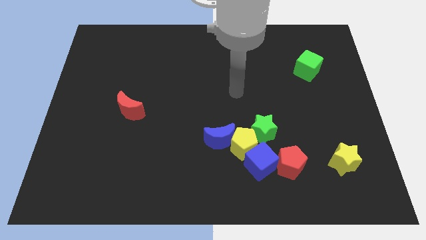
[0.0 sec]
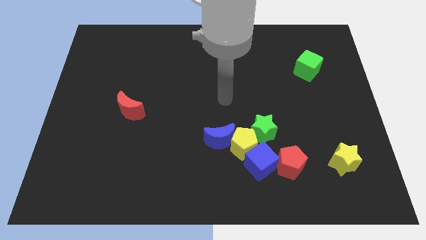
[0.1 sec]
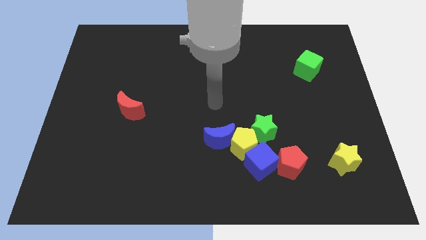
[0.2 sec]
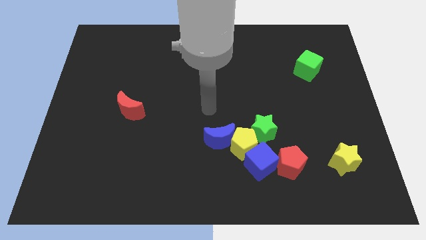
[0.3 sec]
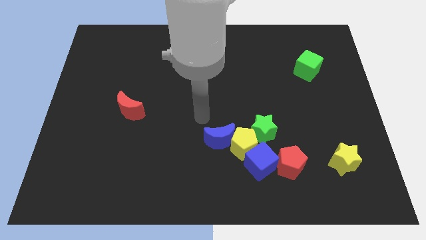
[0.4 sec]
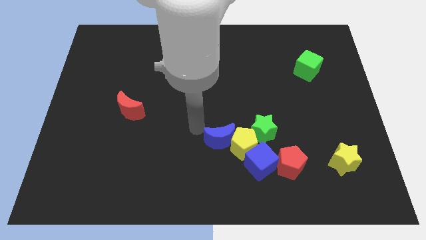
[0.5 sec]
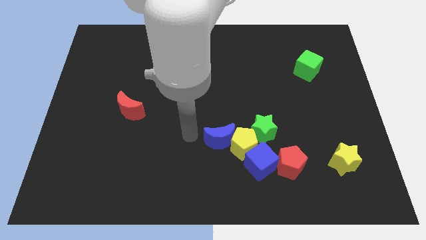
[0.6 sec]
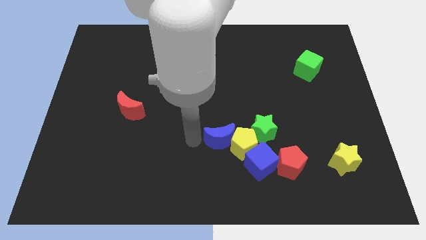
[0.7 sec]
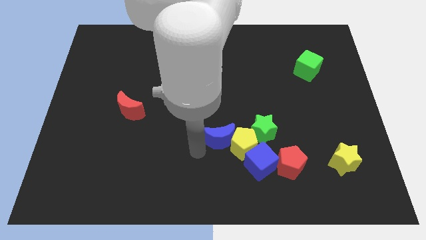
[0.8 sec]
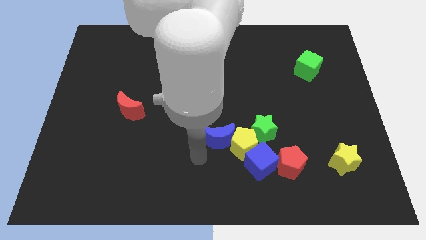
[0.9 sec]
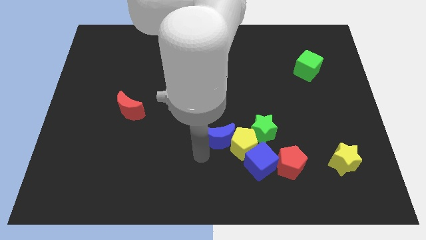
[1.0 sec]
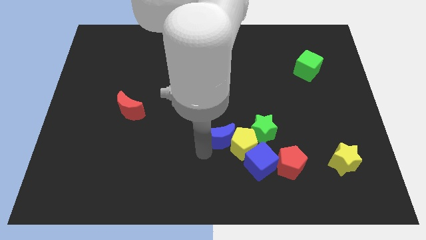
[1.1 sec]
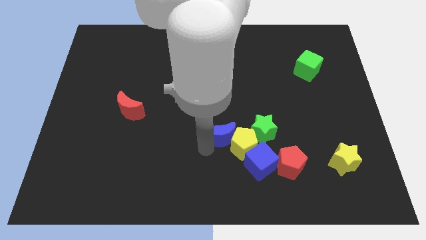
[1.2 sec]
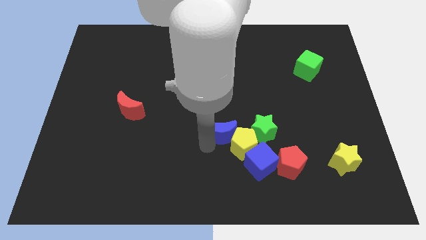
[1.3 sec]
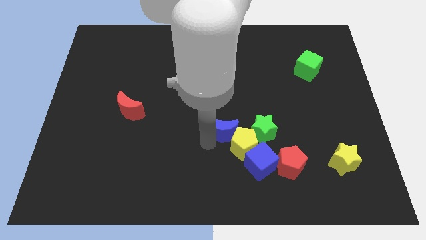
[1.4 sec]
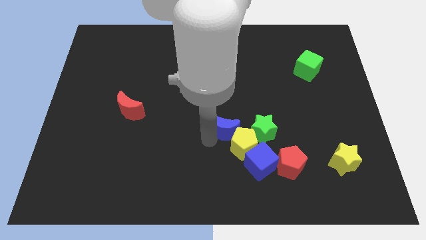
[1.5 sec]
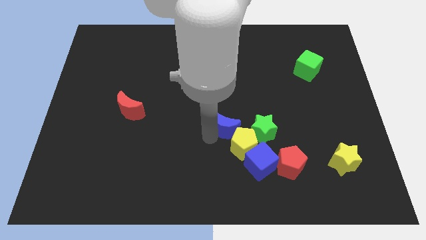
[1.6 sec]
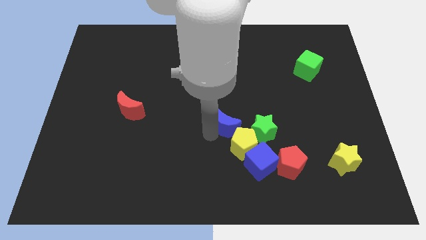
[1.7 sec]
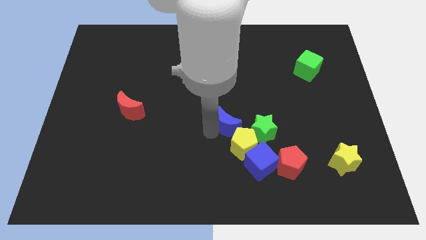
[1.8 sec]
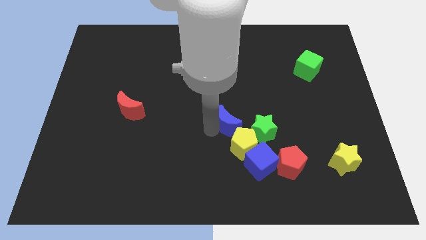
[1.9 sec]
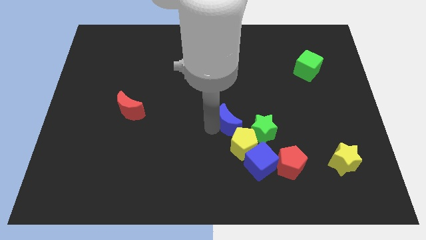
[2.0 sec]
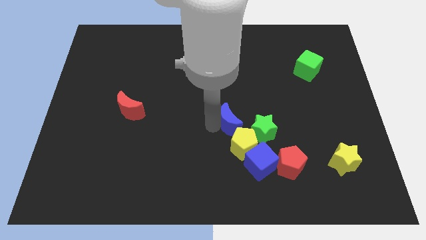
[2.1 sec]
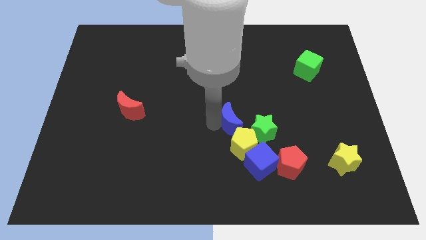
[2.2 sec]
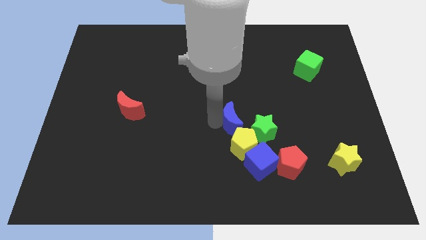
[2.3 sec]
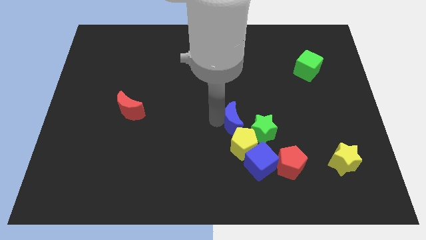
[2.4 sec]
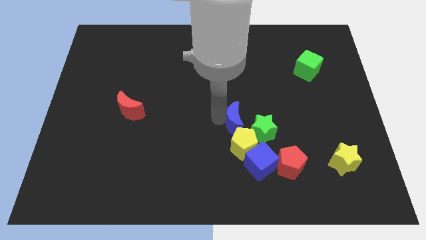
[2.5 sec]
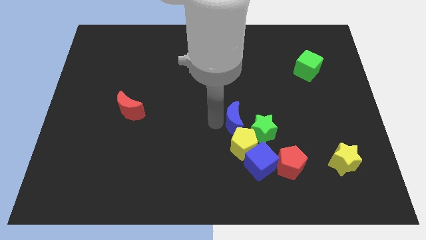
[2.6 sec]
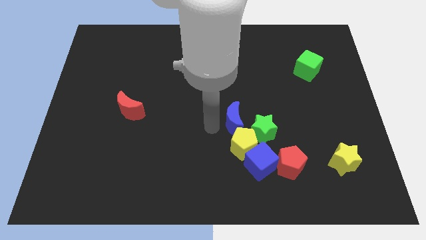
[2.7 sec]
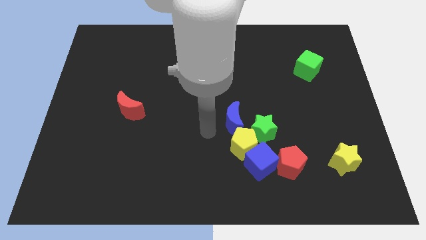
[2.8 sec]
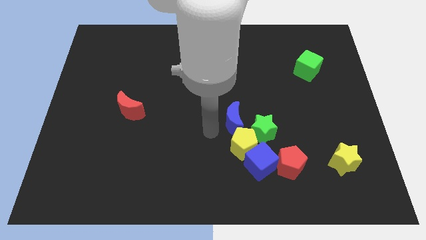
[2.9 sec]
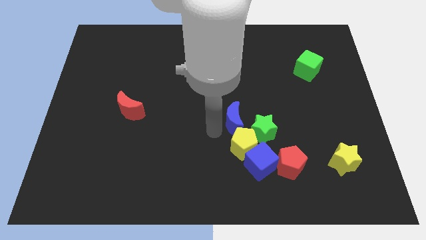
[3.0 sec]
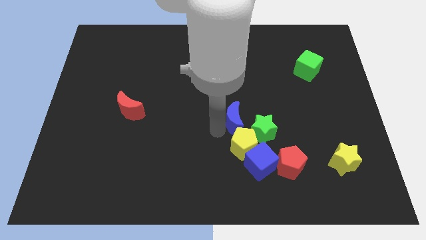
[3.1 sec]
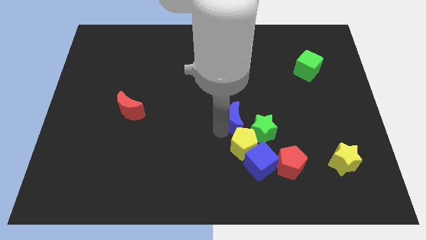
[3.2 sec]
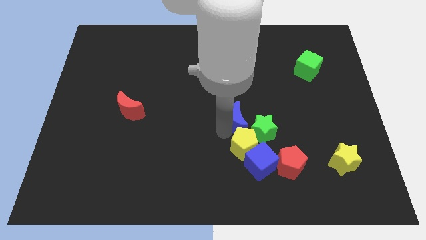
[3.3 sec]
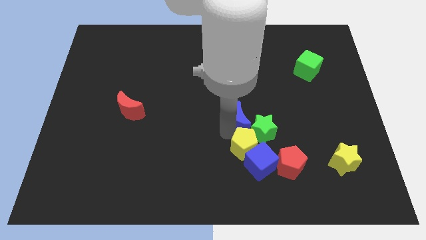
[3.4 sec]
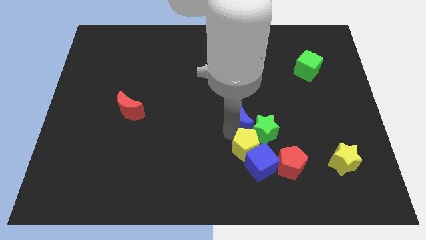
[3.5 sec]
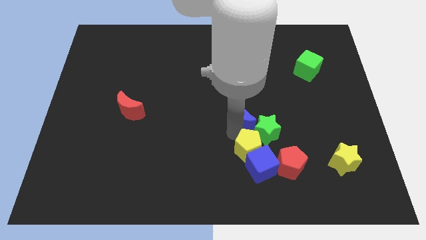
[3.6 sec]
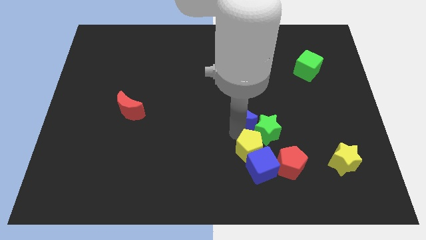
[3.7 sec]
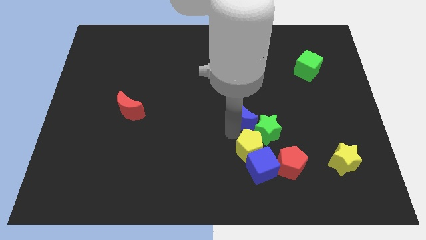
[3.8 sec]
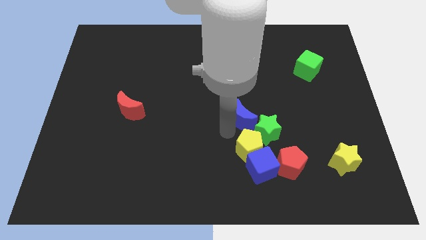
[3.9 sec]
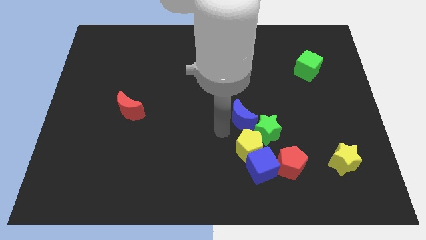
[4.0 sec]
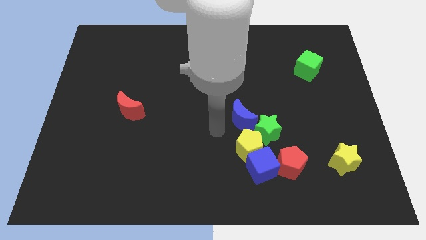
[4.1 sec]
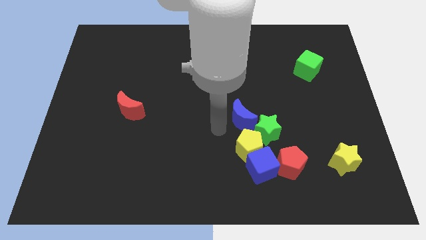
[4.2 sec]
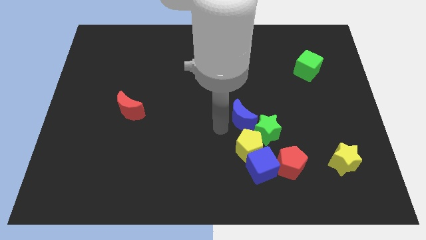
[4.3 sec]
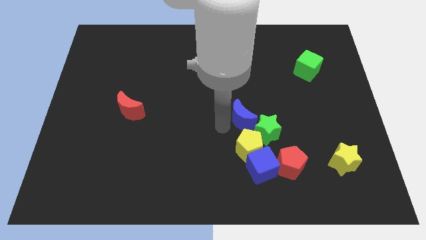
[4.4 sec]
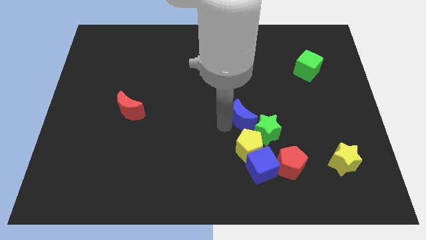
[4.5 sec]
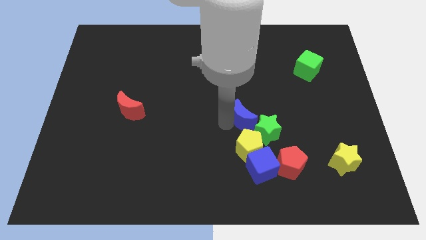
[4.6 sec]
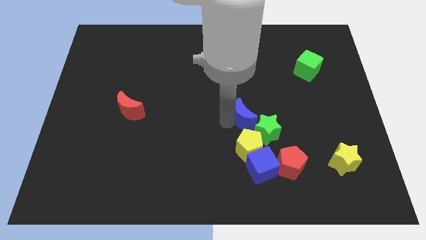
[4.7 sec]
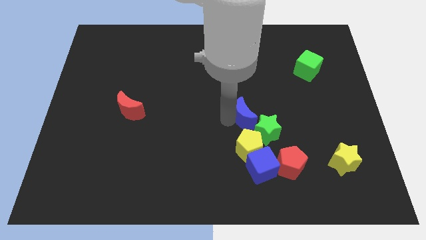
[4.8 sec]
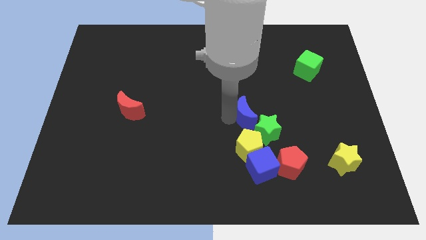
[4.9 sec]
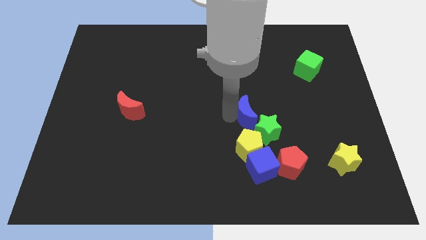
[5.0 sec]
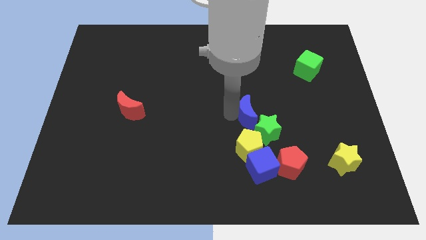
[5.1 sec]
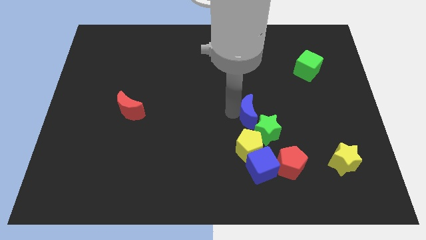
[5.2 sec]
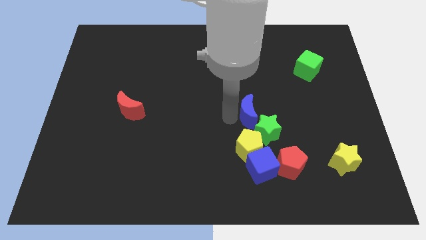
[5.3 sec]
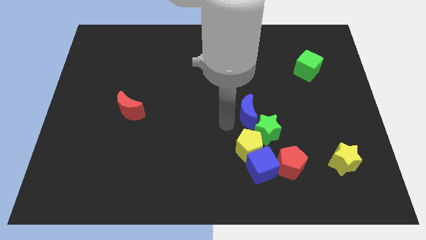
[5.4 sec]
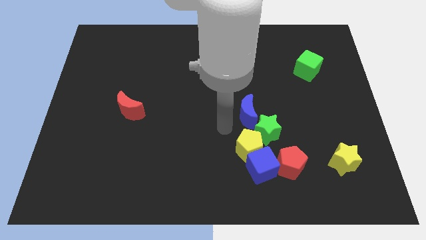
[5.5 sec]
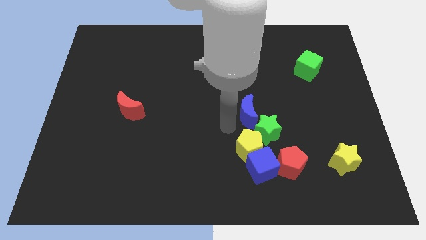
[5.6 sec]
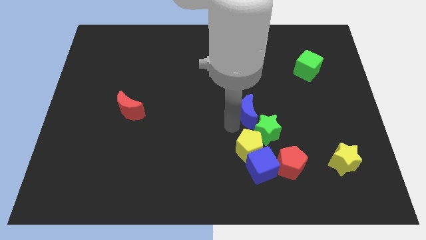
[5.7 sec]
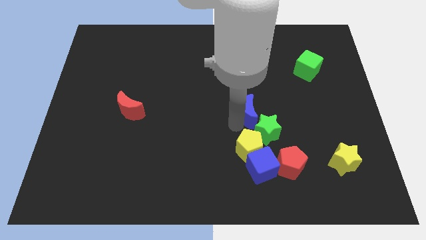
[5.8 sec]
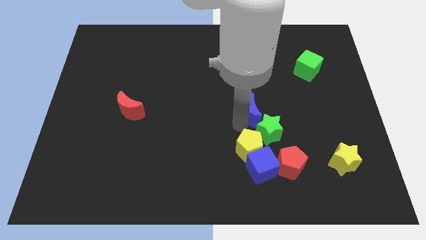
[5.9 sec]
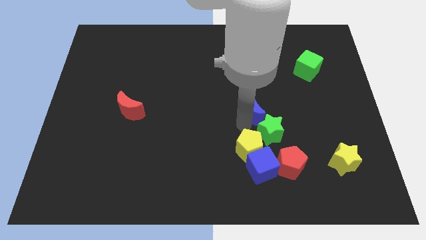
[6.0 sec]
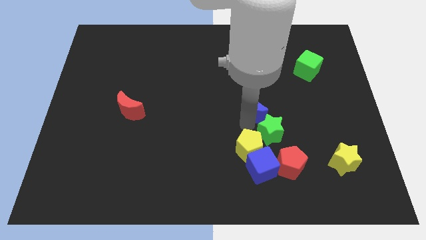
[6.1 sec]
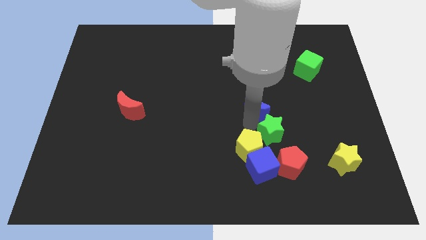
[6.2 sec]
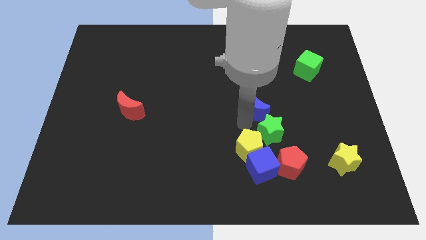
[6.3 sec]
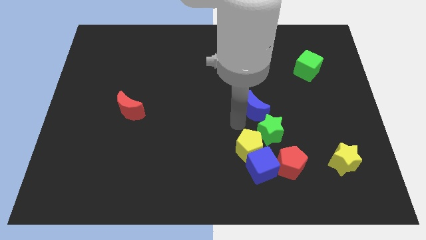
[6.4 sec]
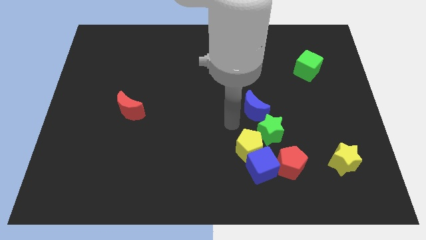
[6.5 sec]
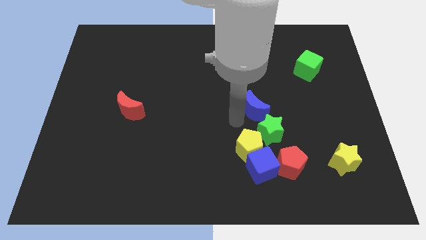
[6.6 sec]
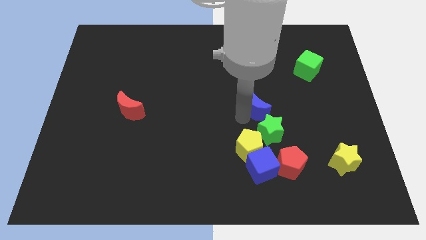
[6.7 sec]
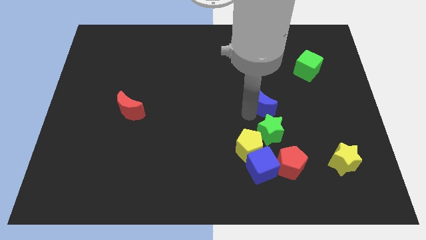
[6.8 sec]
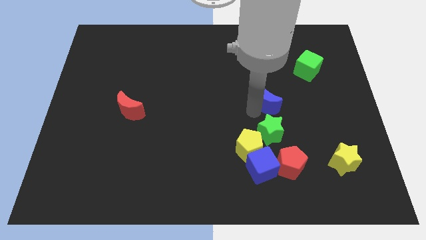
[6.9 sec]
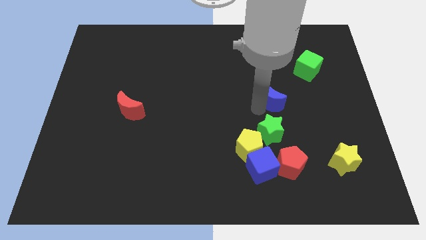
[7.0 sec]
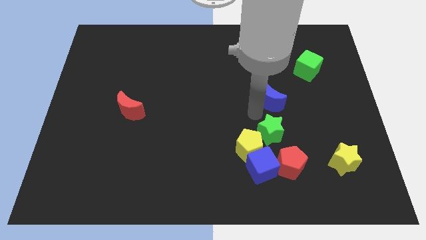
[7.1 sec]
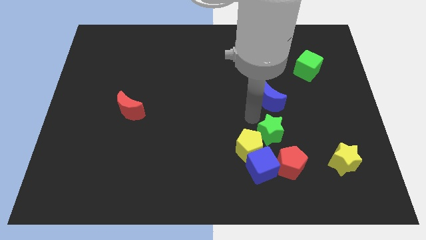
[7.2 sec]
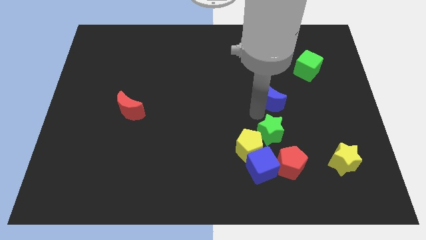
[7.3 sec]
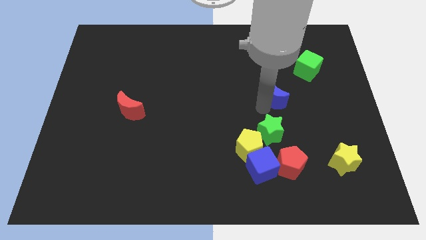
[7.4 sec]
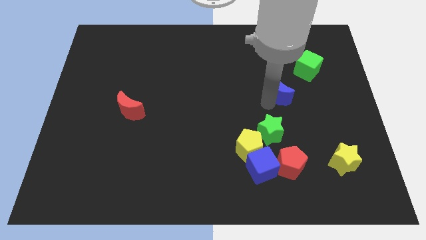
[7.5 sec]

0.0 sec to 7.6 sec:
slide the blue moon to the bottom left side of the green cube

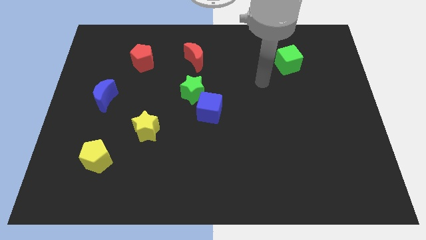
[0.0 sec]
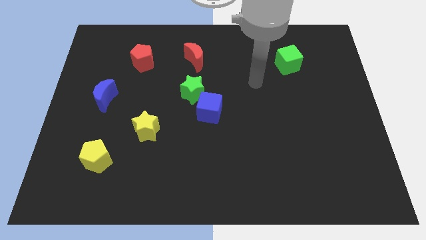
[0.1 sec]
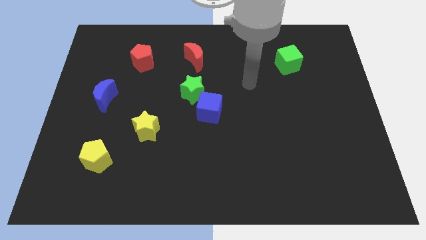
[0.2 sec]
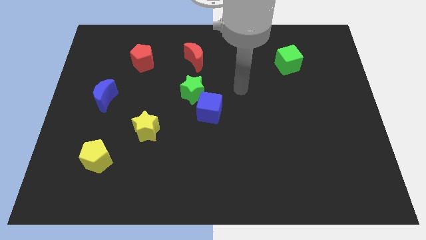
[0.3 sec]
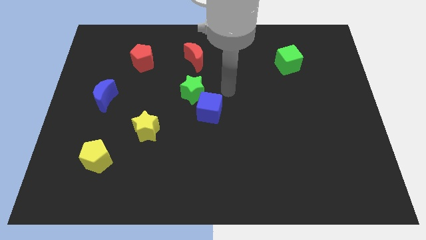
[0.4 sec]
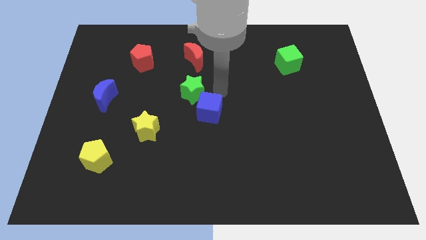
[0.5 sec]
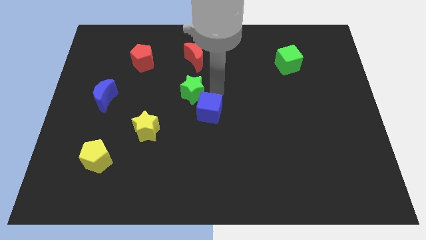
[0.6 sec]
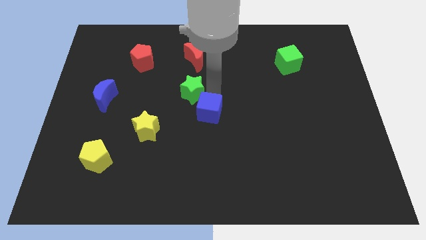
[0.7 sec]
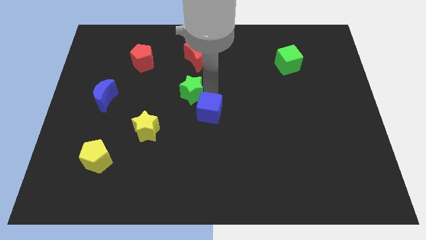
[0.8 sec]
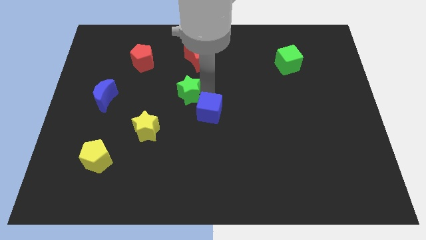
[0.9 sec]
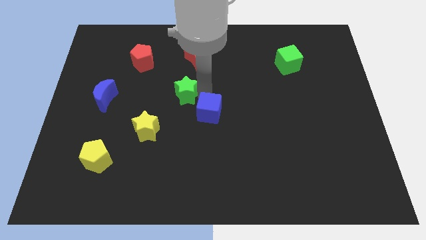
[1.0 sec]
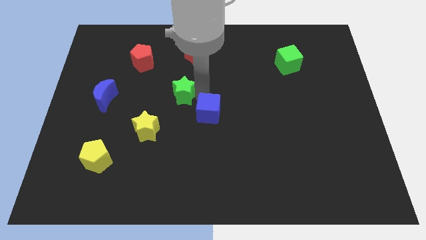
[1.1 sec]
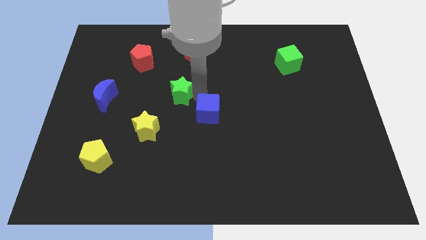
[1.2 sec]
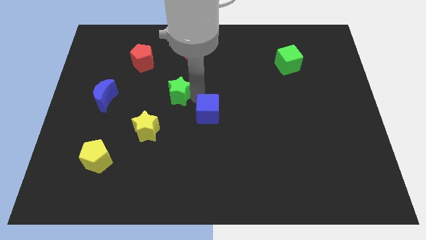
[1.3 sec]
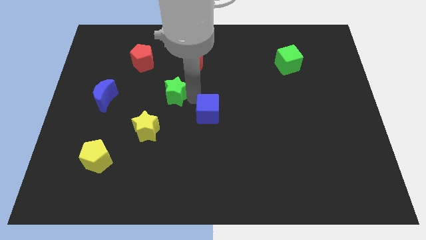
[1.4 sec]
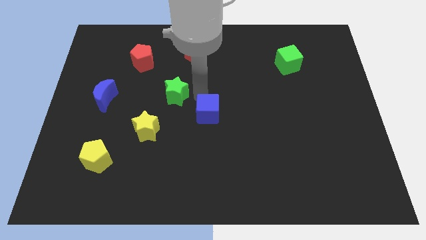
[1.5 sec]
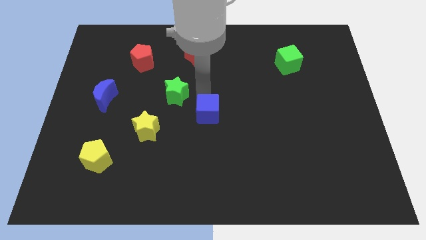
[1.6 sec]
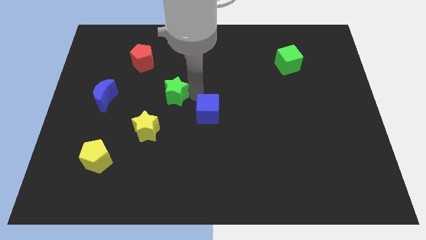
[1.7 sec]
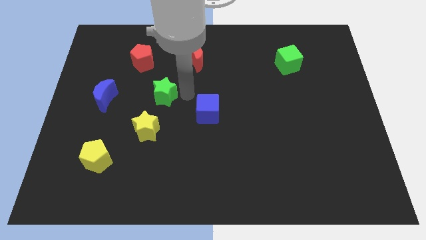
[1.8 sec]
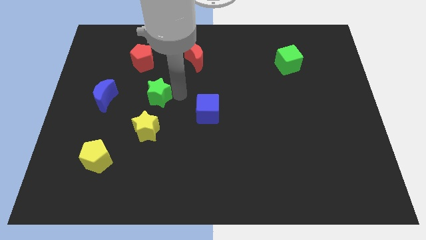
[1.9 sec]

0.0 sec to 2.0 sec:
put the green star to the bottom side of the red pentagon
